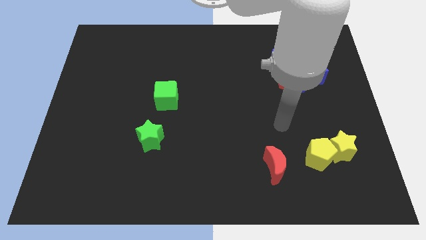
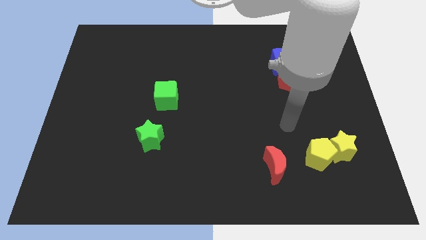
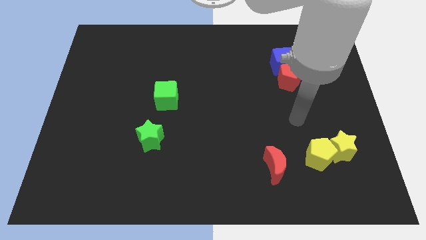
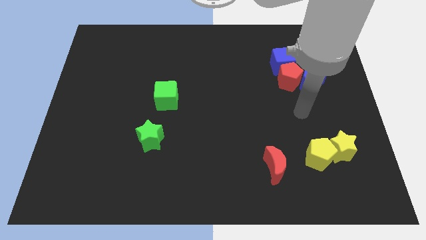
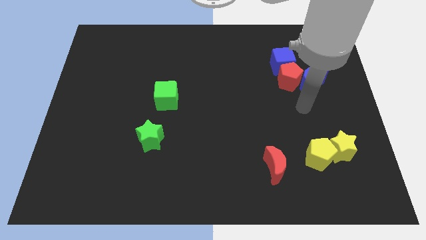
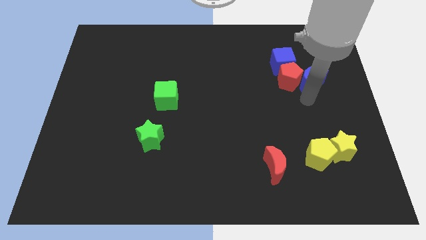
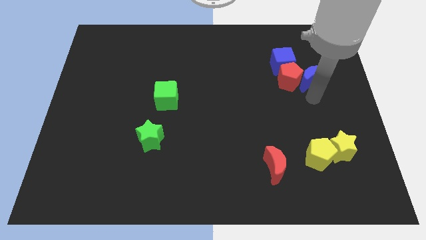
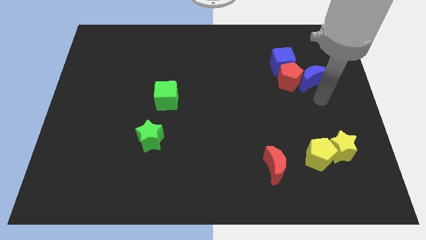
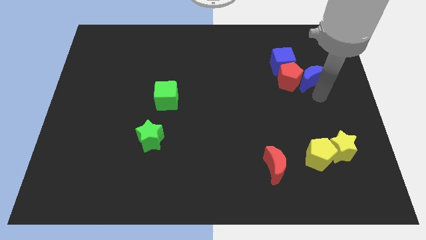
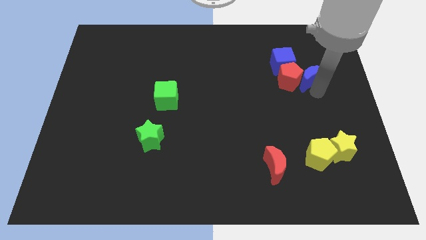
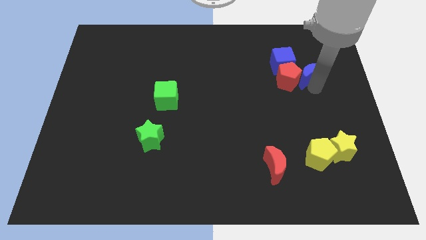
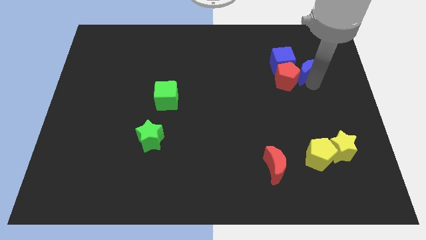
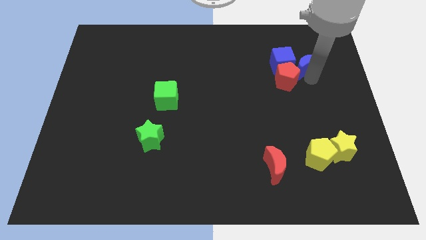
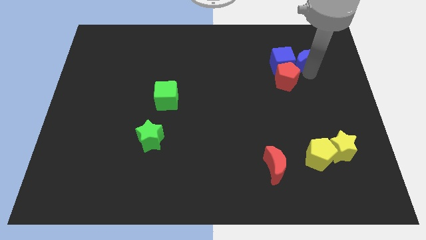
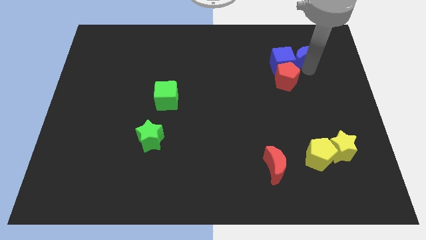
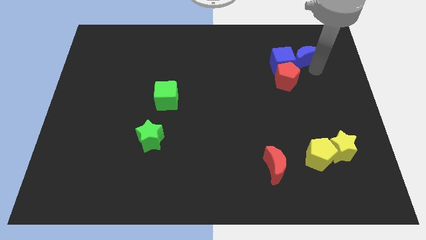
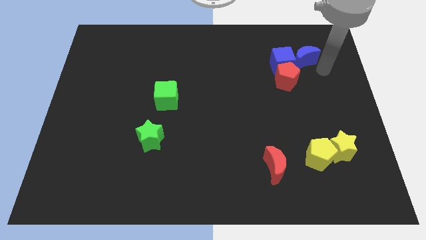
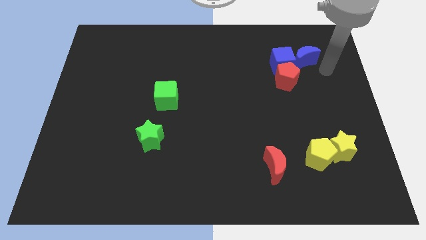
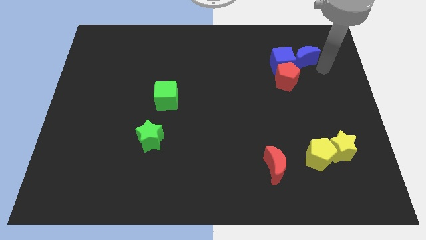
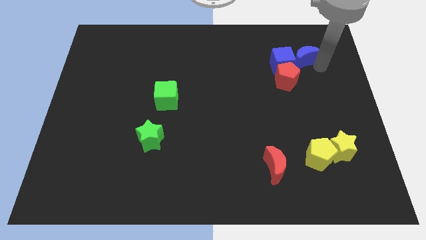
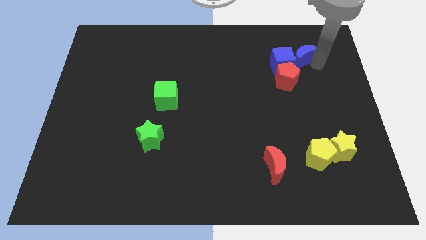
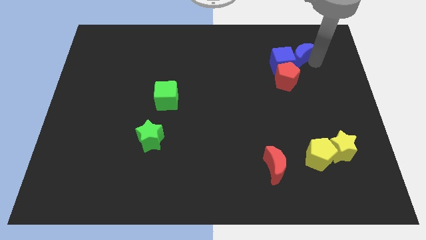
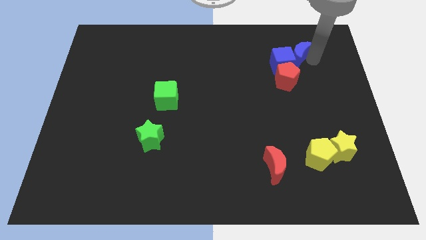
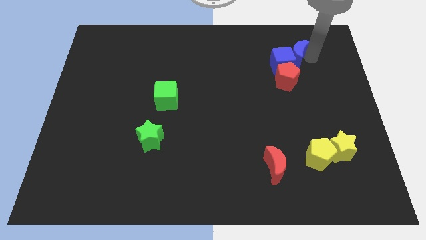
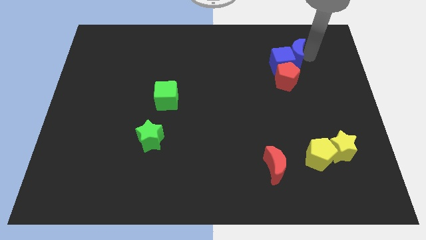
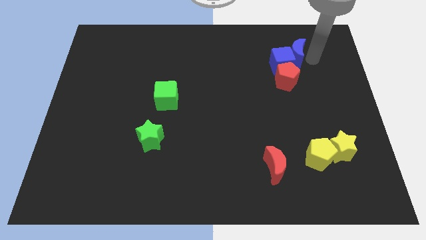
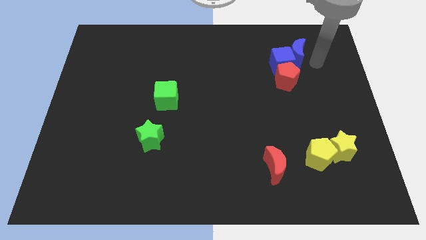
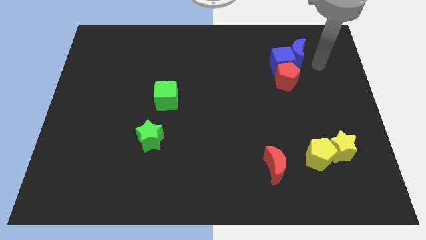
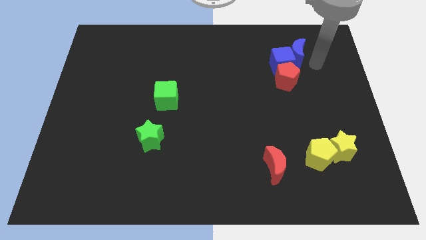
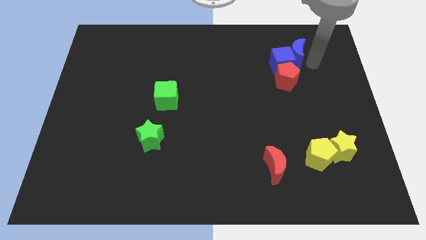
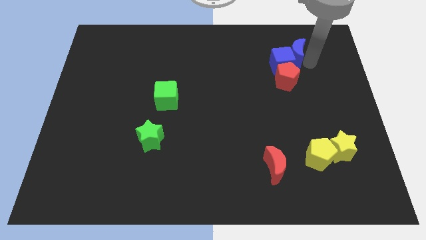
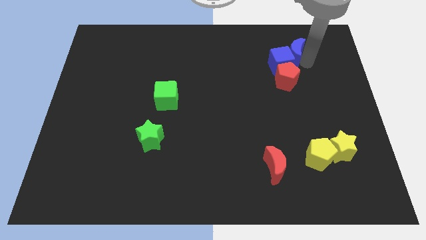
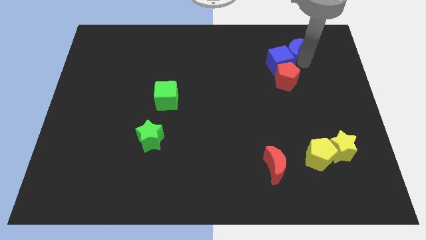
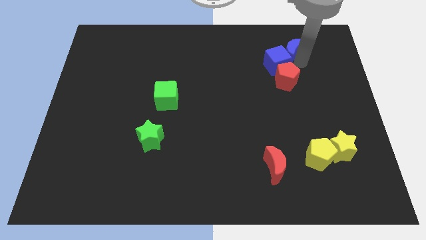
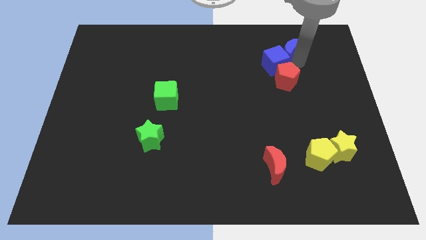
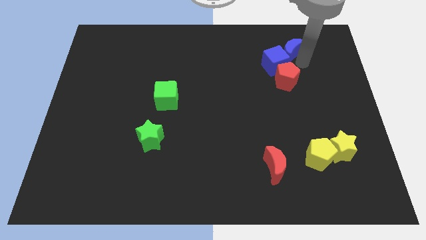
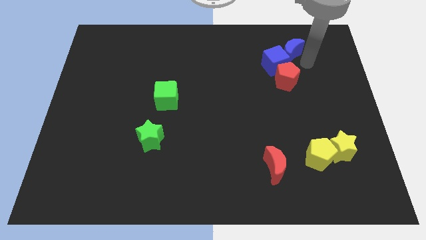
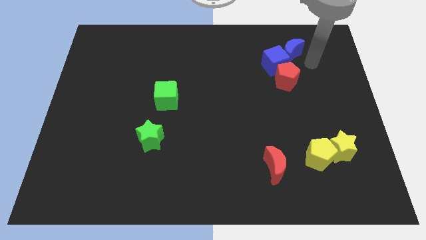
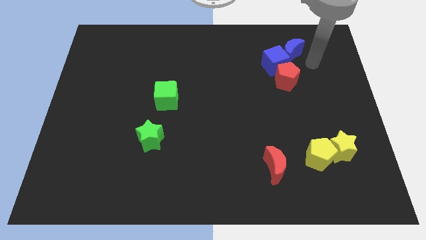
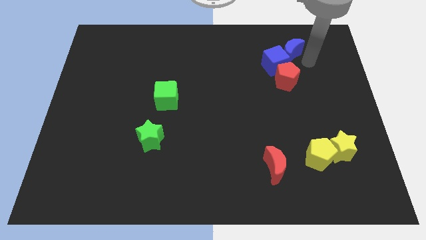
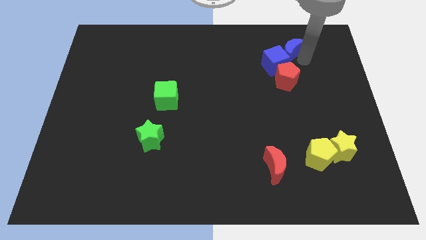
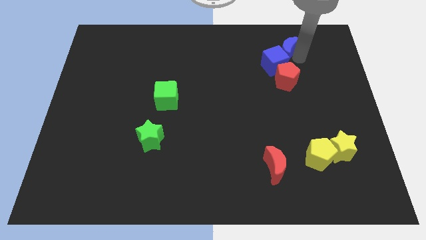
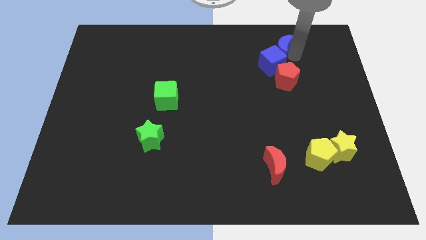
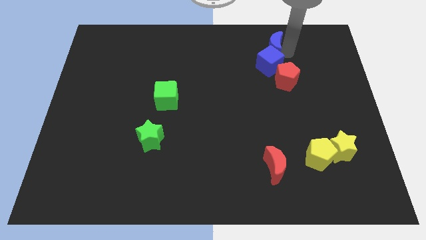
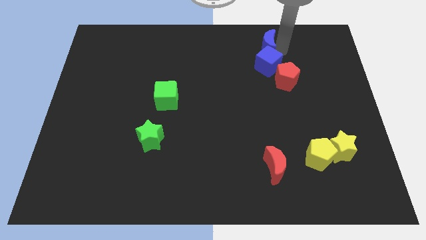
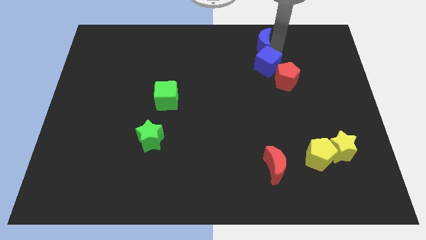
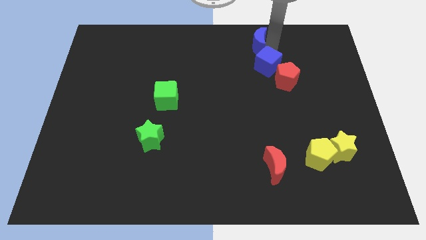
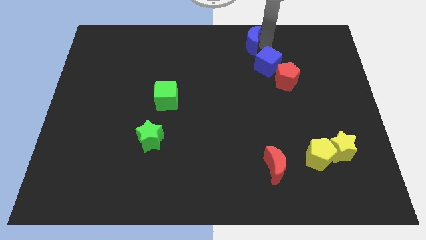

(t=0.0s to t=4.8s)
move the blue moon to the top

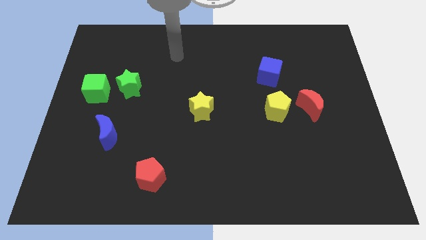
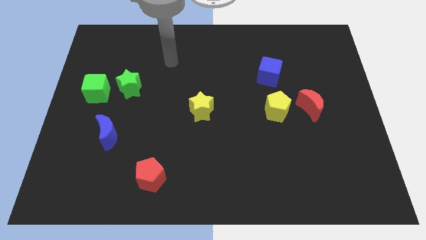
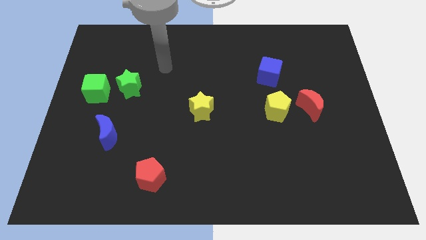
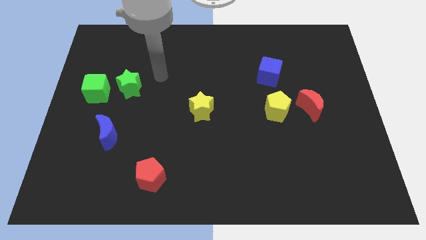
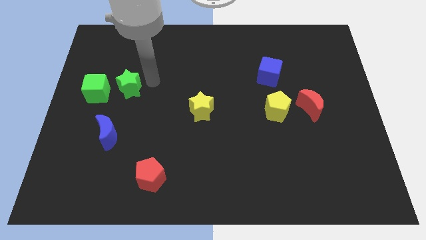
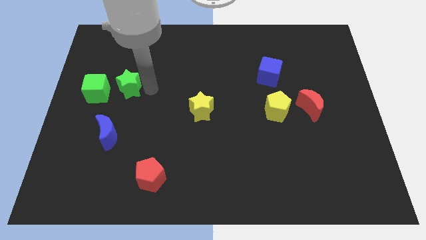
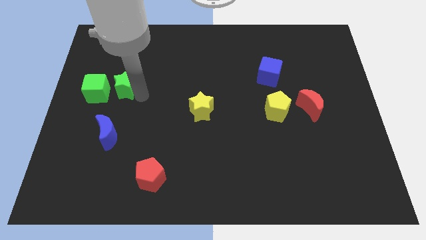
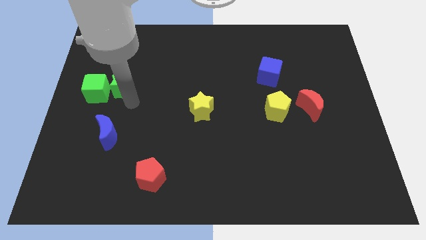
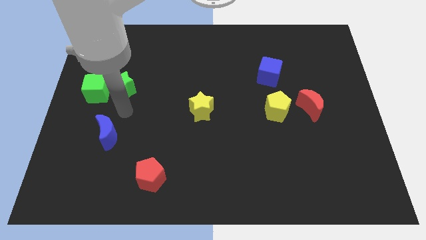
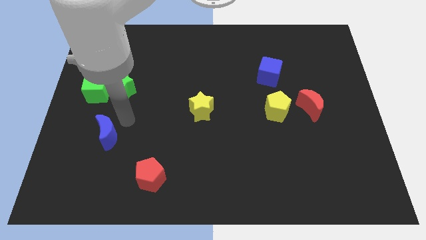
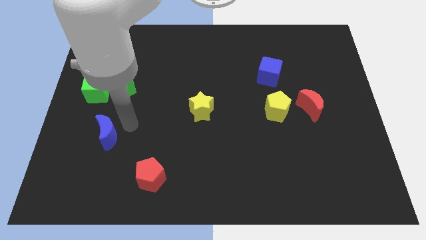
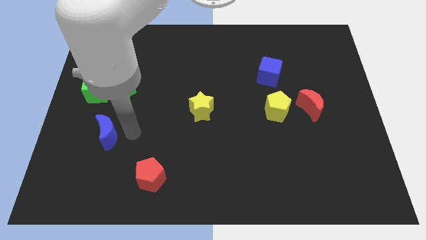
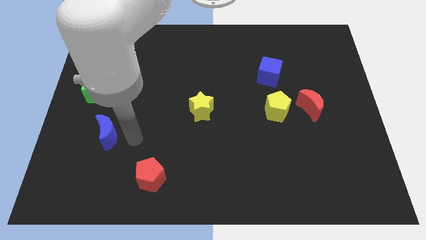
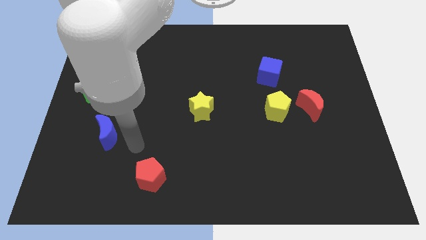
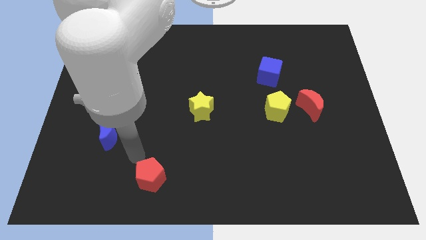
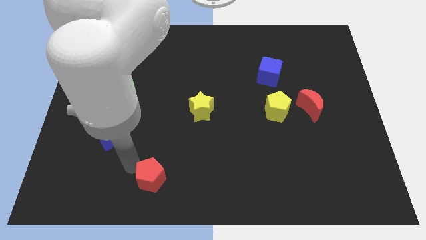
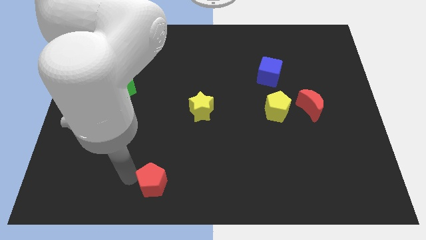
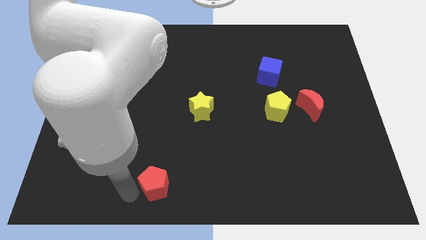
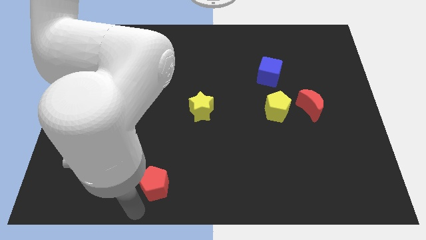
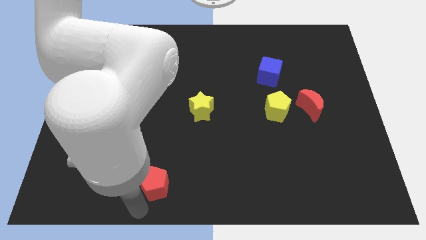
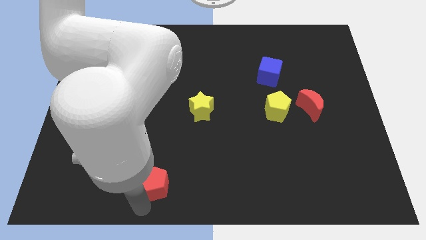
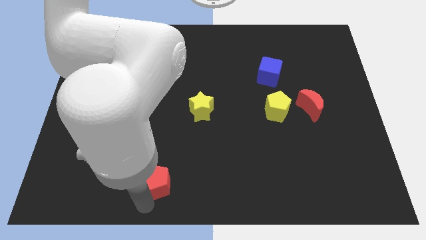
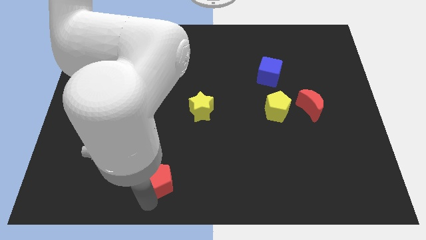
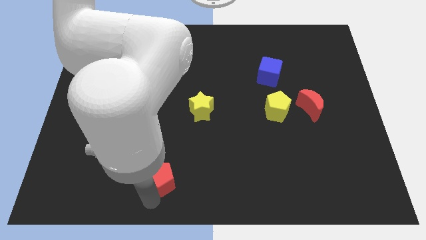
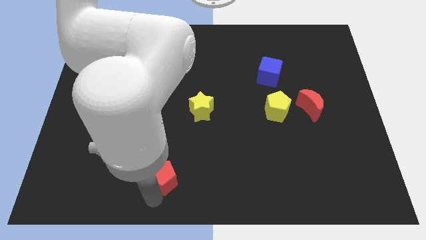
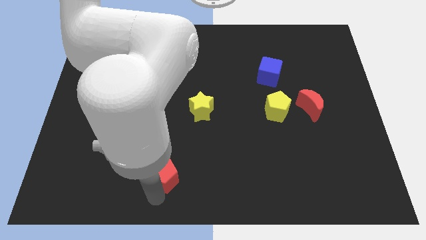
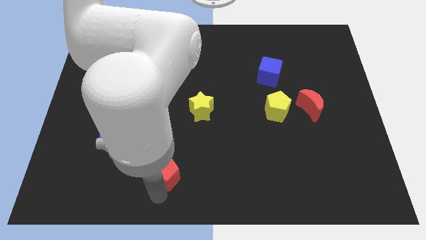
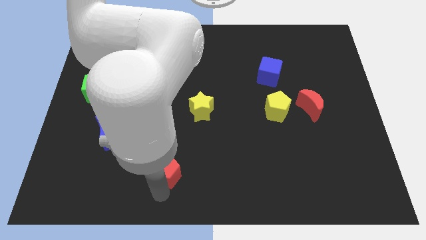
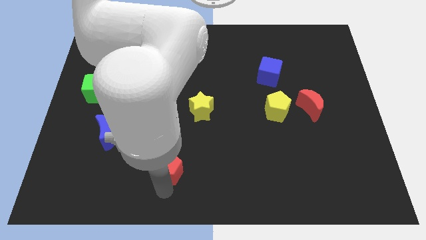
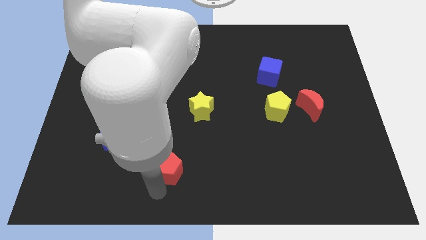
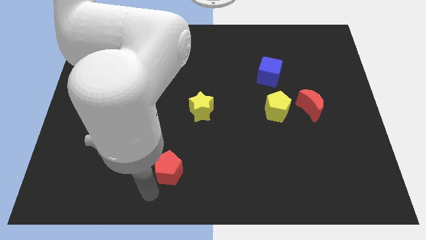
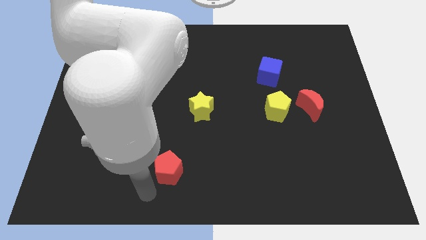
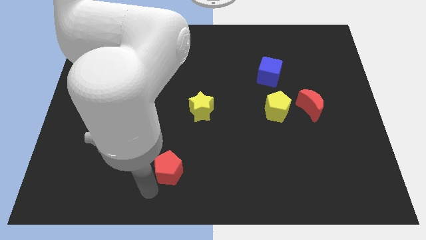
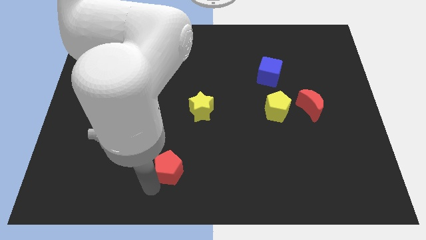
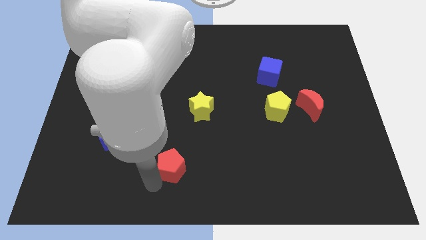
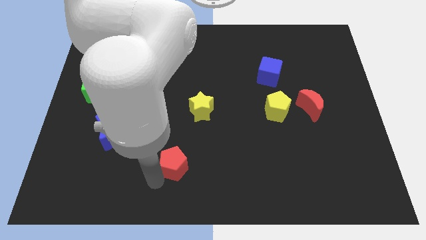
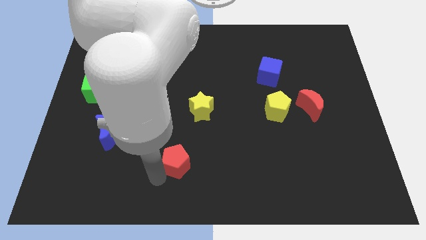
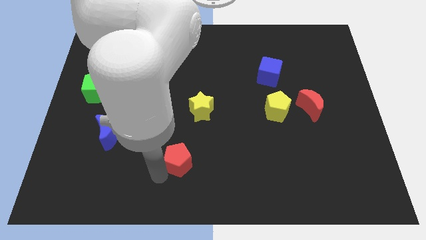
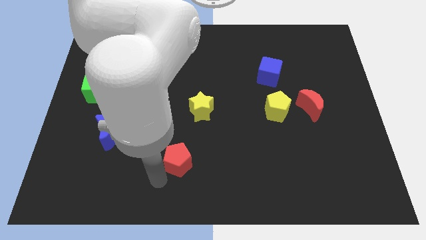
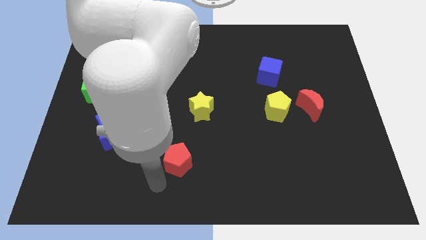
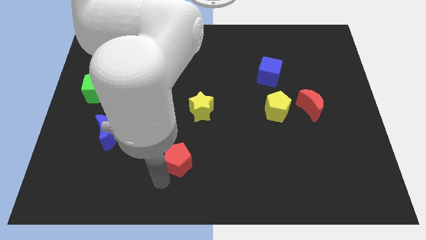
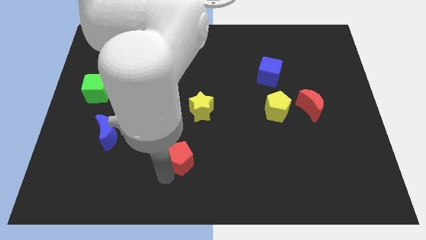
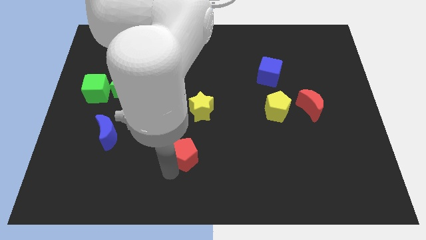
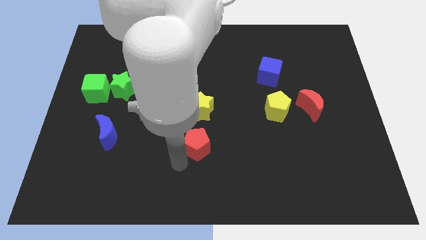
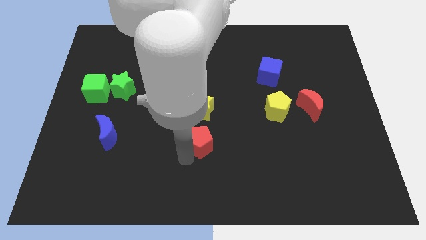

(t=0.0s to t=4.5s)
move the red pentagon to the middle
